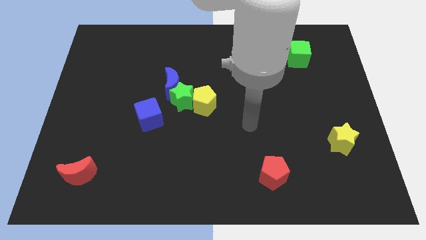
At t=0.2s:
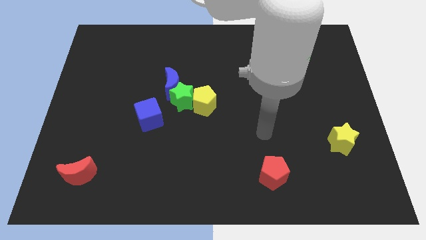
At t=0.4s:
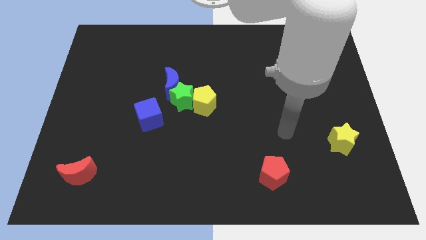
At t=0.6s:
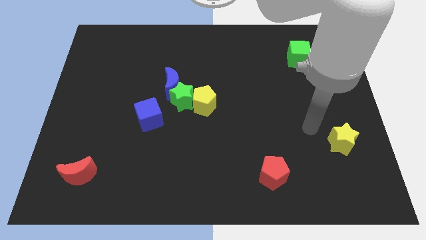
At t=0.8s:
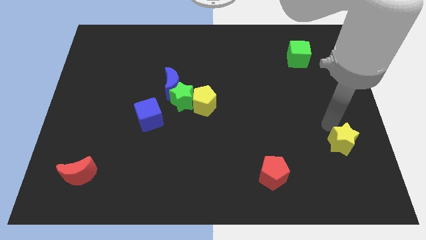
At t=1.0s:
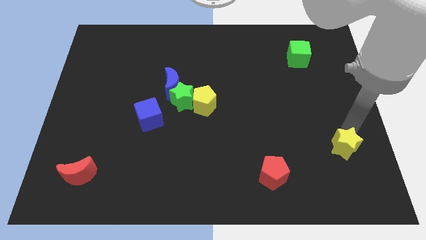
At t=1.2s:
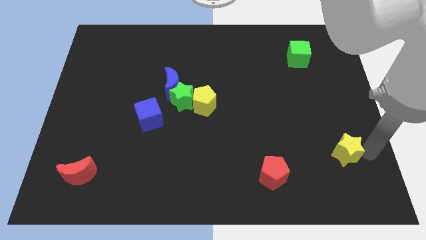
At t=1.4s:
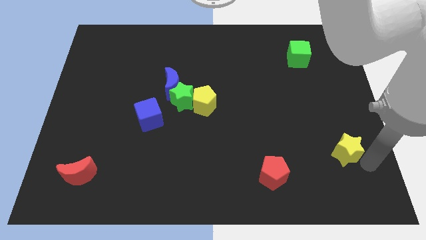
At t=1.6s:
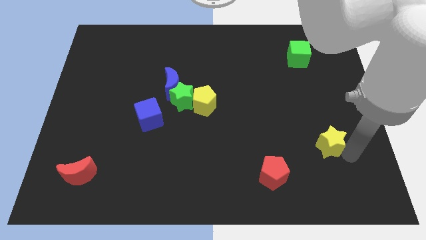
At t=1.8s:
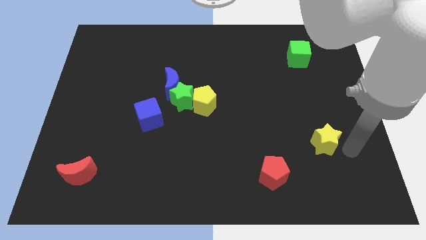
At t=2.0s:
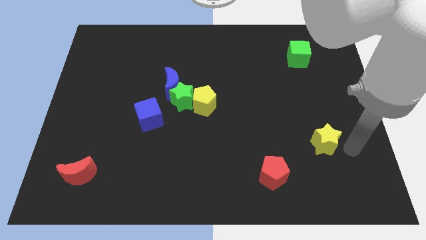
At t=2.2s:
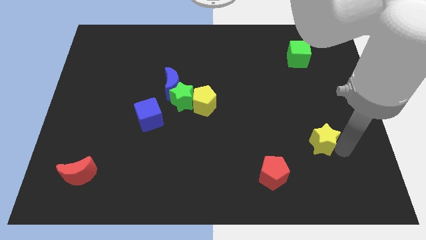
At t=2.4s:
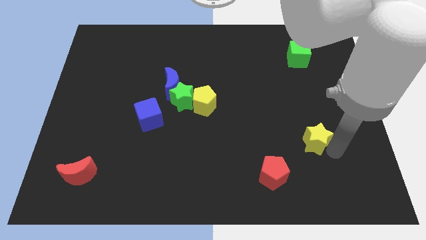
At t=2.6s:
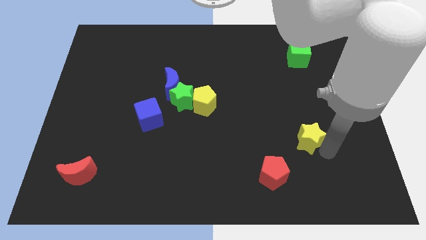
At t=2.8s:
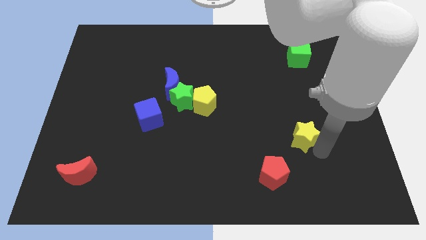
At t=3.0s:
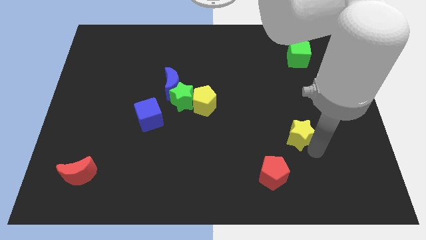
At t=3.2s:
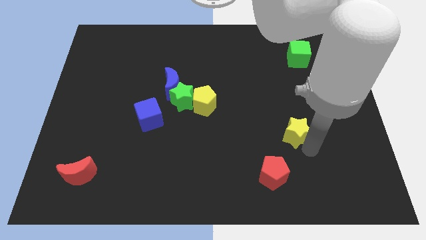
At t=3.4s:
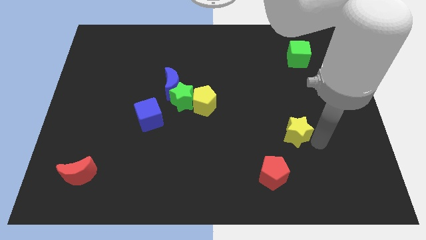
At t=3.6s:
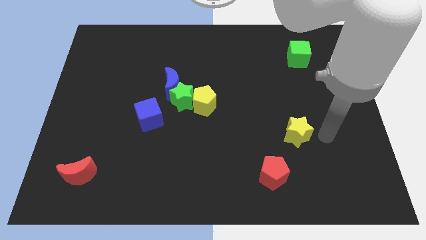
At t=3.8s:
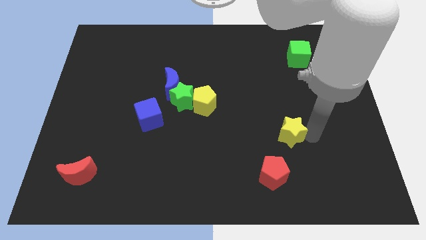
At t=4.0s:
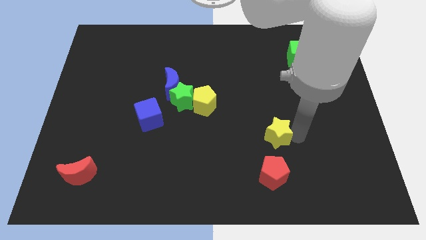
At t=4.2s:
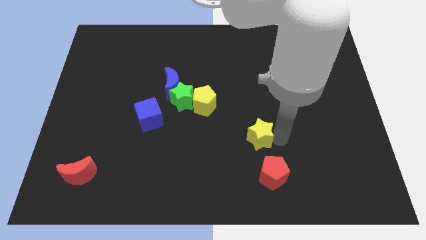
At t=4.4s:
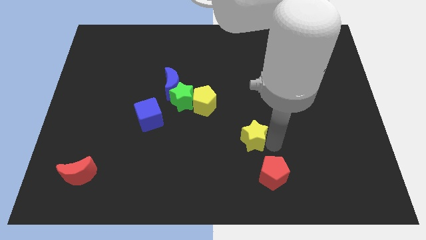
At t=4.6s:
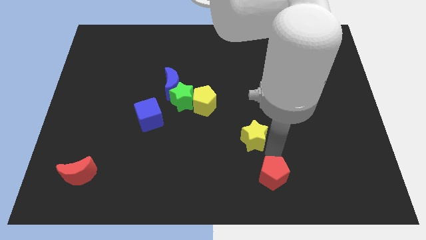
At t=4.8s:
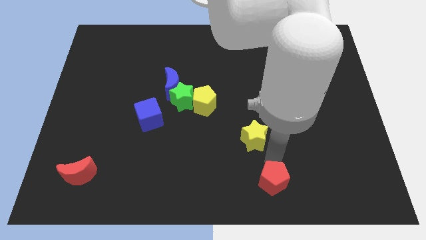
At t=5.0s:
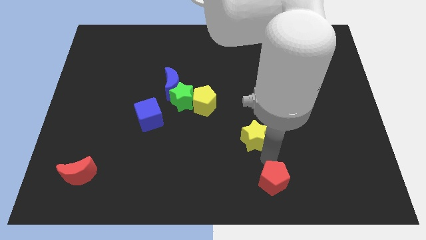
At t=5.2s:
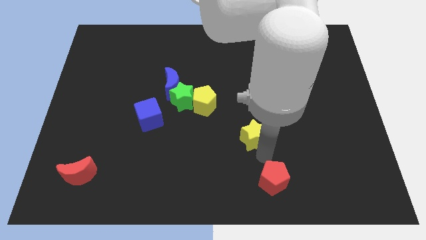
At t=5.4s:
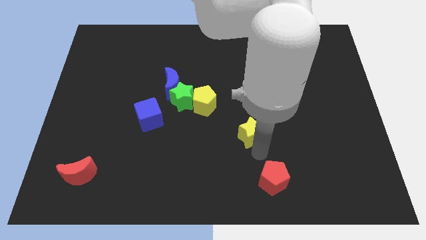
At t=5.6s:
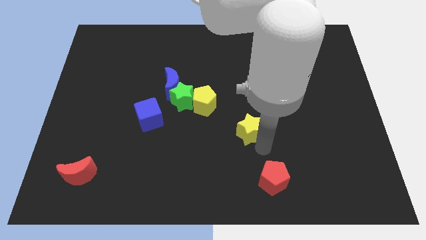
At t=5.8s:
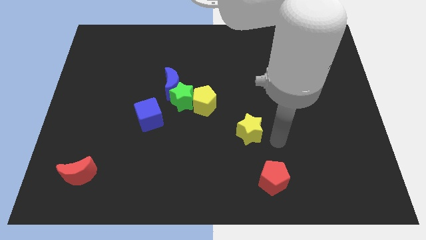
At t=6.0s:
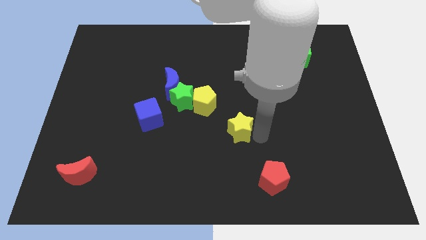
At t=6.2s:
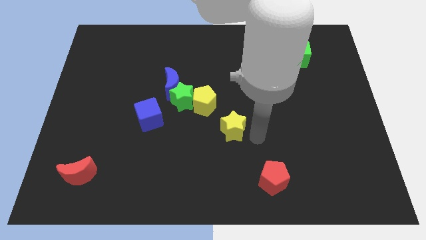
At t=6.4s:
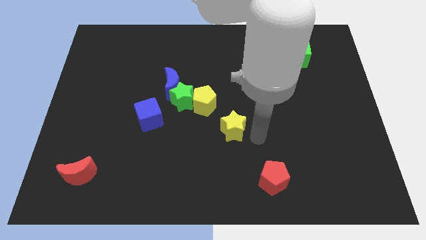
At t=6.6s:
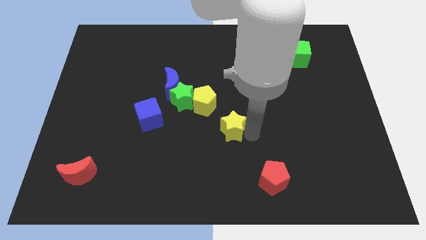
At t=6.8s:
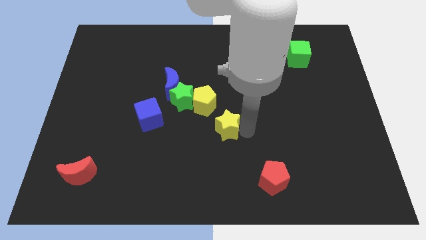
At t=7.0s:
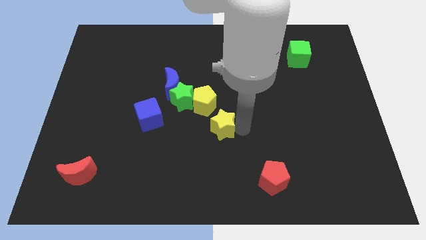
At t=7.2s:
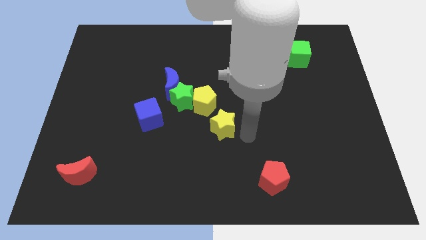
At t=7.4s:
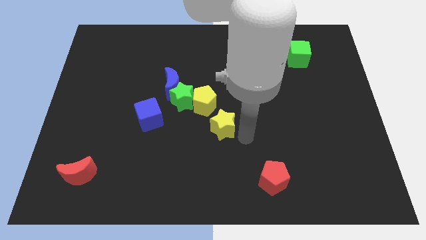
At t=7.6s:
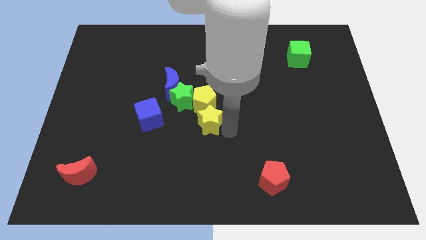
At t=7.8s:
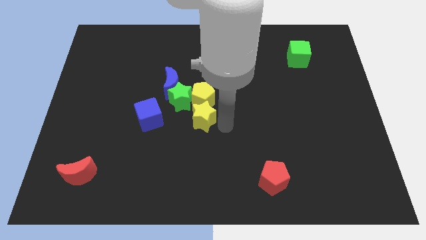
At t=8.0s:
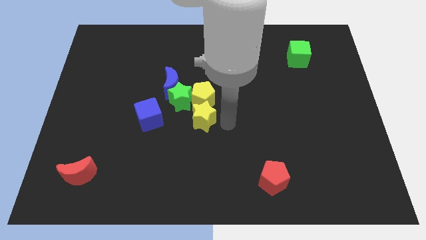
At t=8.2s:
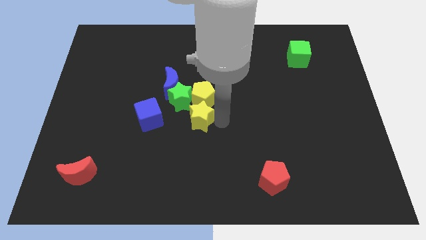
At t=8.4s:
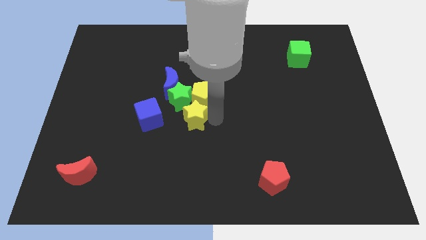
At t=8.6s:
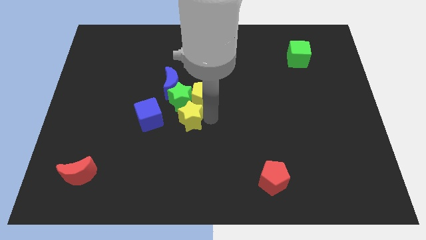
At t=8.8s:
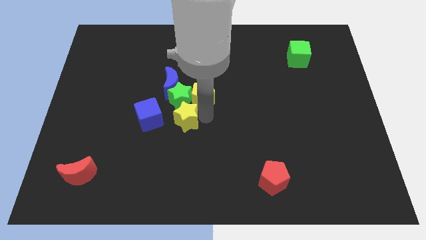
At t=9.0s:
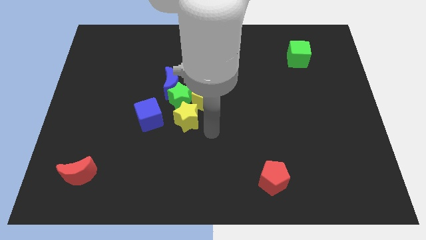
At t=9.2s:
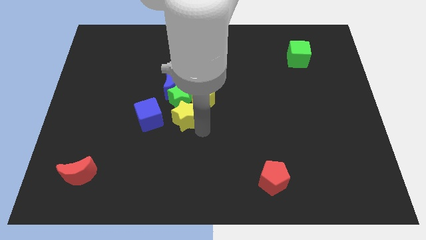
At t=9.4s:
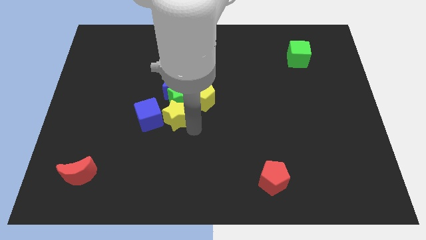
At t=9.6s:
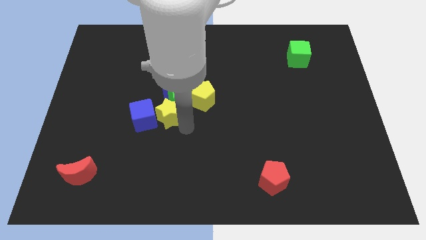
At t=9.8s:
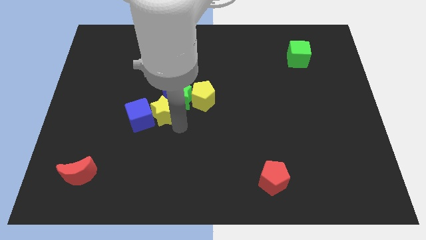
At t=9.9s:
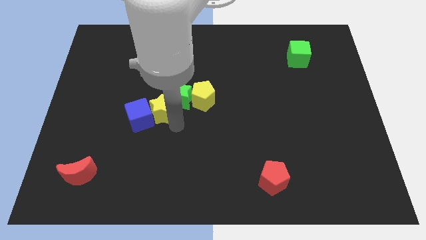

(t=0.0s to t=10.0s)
put the yellow star diagonally down and to the left of the blue moon

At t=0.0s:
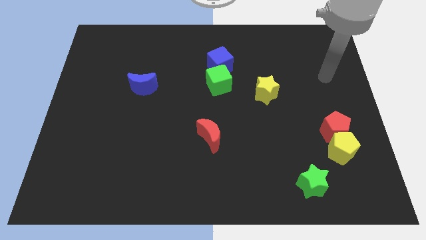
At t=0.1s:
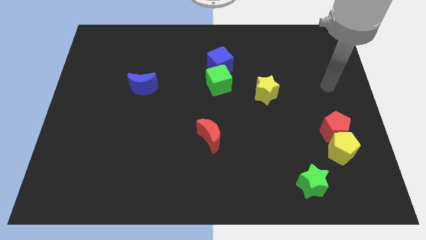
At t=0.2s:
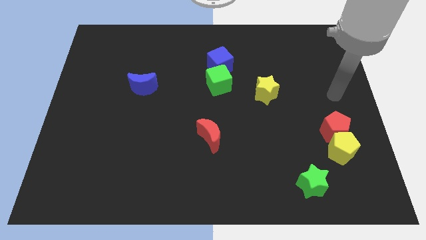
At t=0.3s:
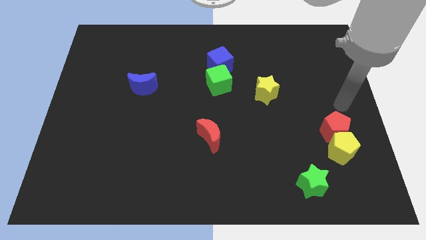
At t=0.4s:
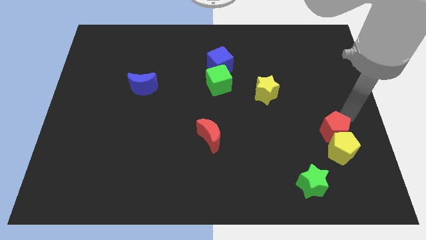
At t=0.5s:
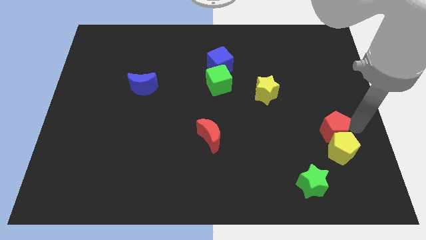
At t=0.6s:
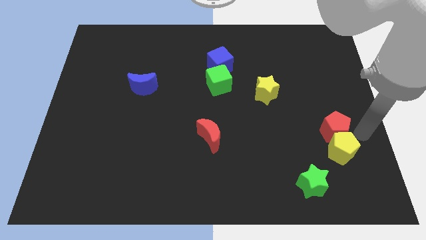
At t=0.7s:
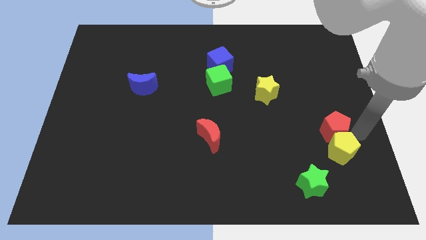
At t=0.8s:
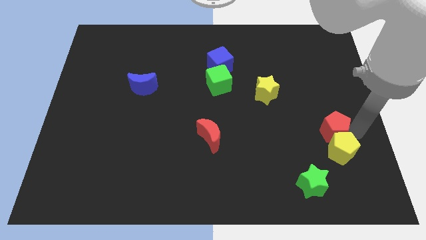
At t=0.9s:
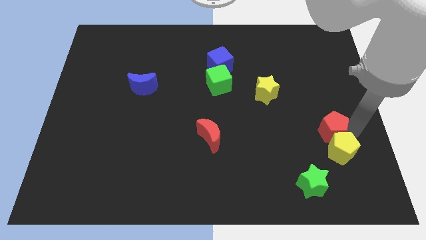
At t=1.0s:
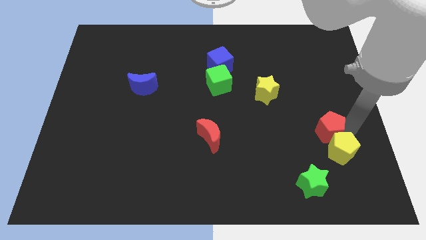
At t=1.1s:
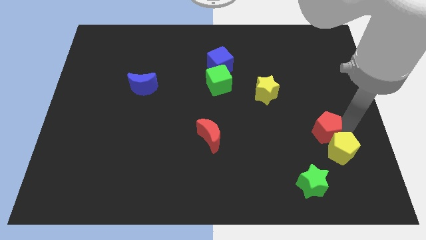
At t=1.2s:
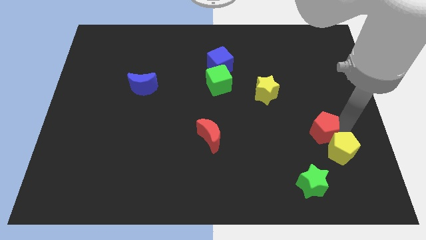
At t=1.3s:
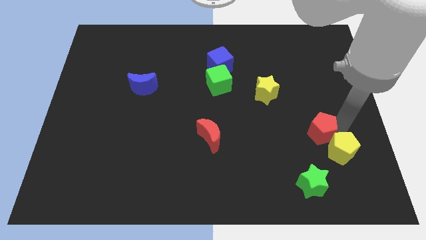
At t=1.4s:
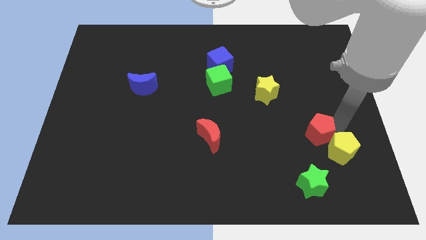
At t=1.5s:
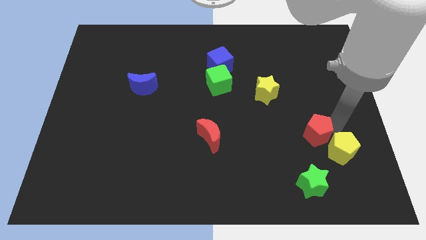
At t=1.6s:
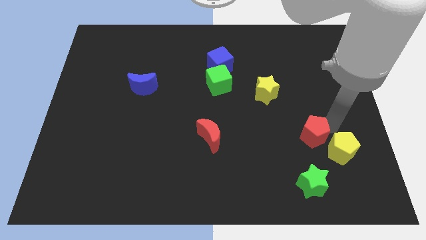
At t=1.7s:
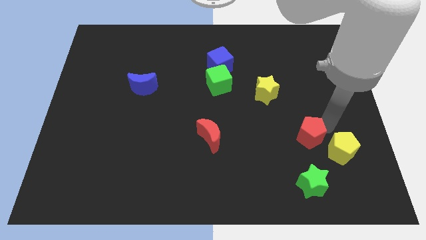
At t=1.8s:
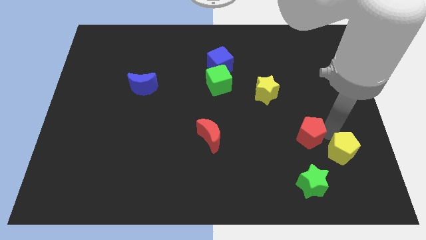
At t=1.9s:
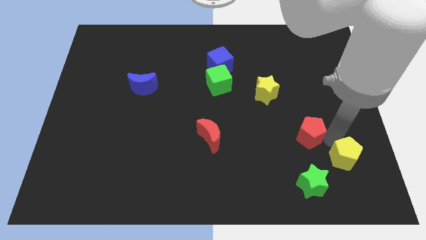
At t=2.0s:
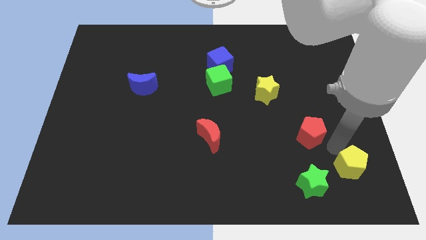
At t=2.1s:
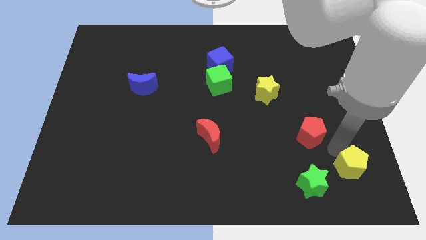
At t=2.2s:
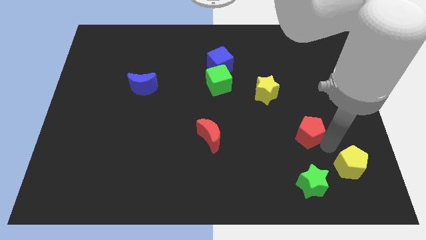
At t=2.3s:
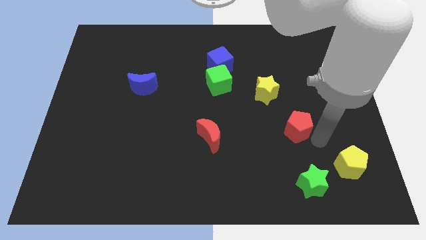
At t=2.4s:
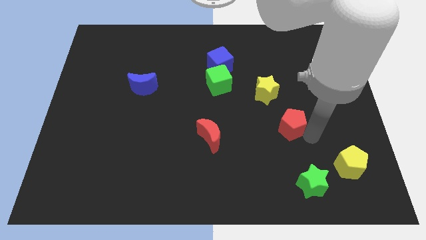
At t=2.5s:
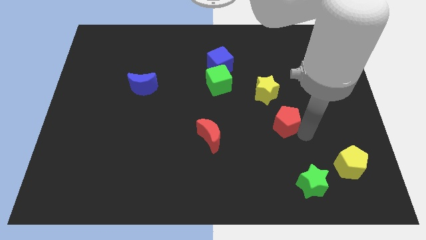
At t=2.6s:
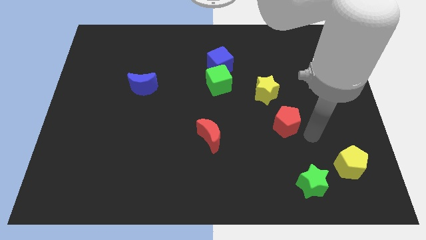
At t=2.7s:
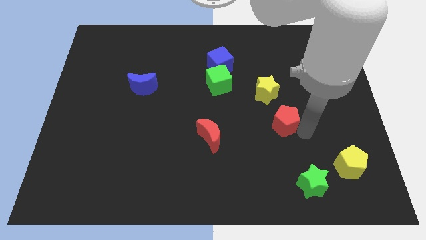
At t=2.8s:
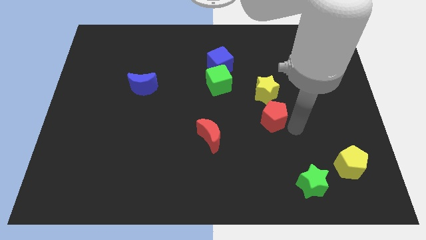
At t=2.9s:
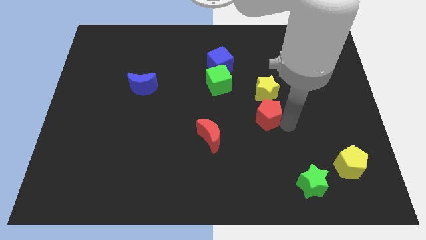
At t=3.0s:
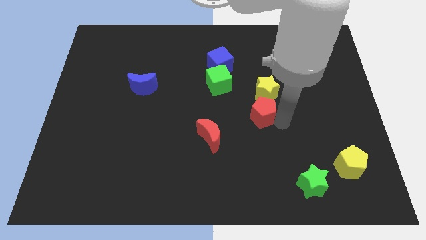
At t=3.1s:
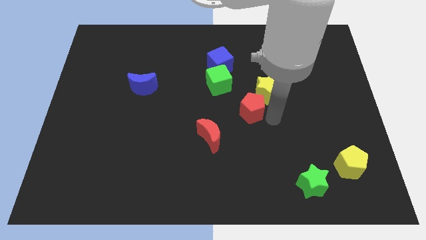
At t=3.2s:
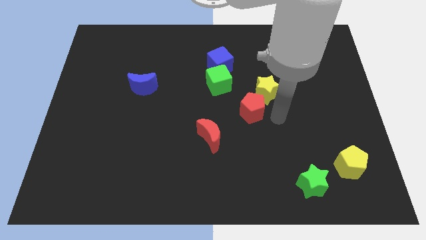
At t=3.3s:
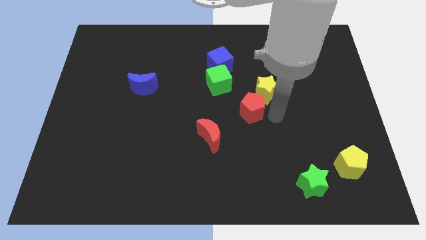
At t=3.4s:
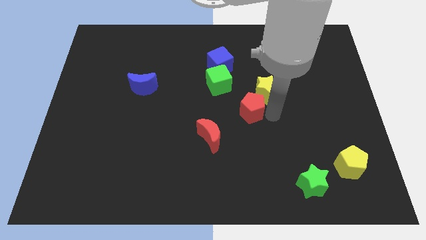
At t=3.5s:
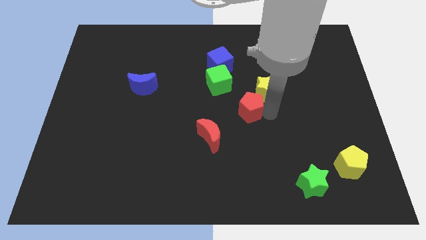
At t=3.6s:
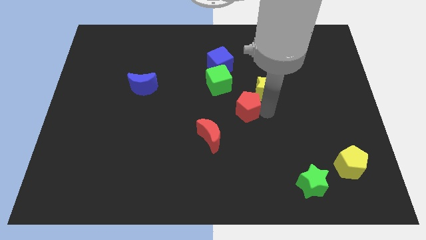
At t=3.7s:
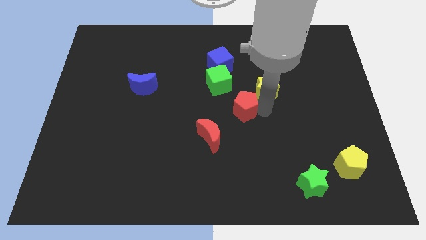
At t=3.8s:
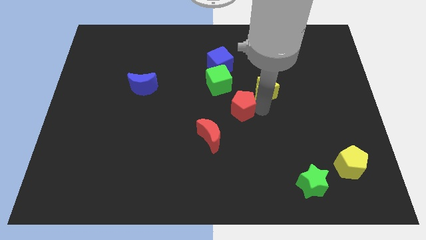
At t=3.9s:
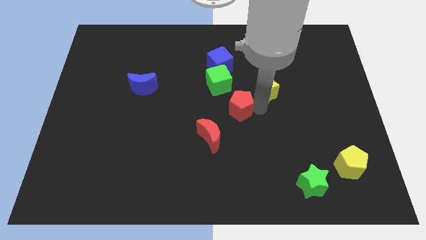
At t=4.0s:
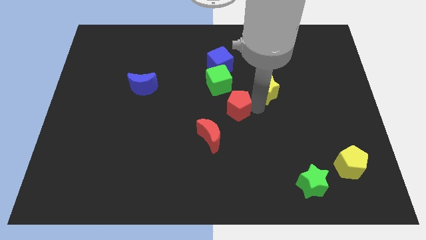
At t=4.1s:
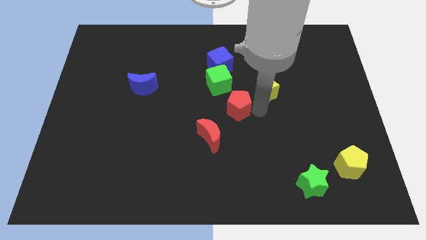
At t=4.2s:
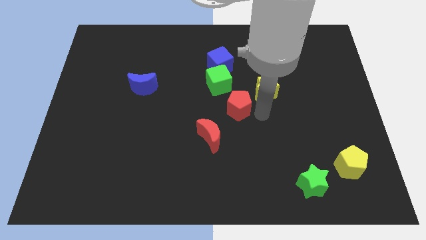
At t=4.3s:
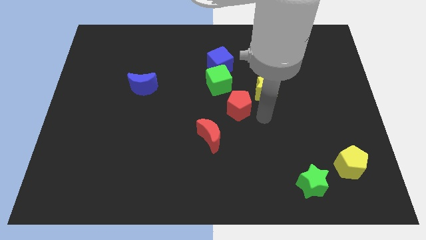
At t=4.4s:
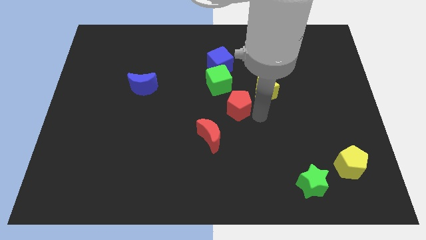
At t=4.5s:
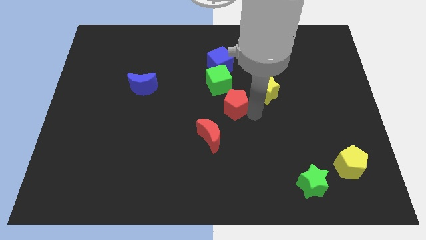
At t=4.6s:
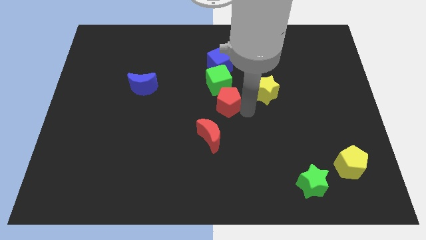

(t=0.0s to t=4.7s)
slide the red pentagon to the top side of the red moon
